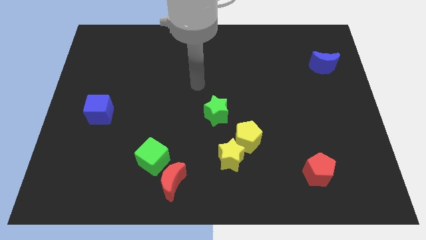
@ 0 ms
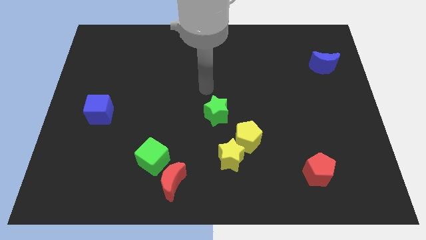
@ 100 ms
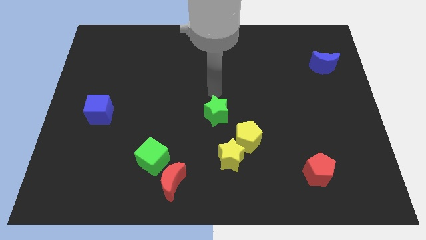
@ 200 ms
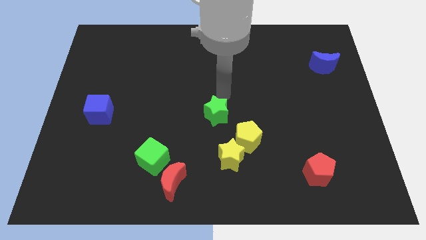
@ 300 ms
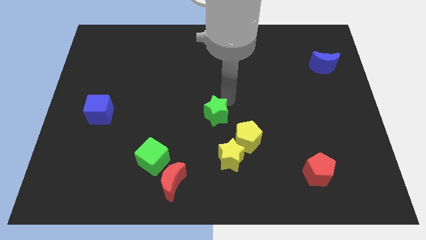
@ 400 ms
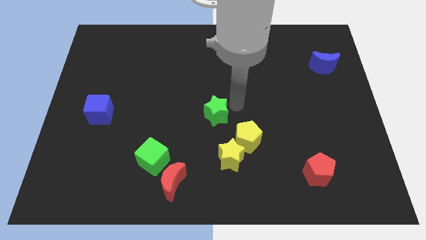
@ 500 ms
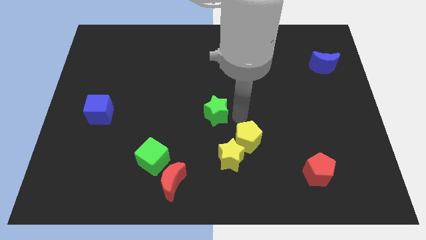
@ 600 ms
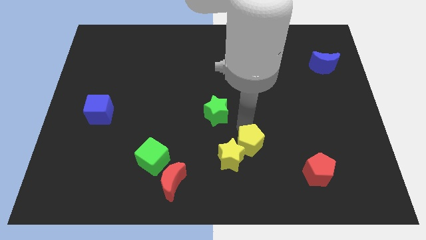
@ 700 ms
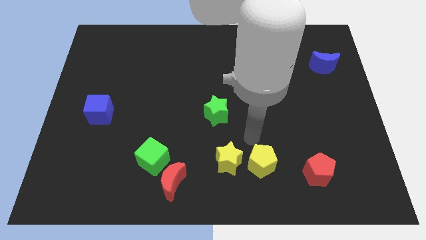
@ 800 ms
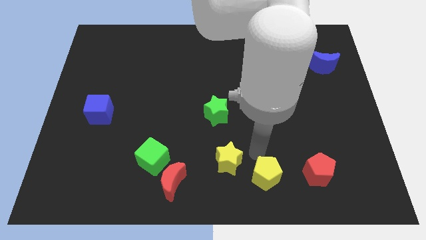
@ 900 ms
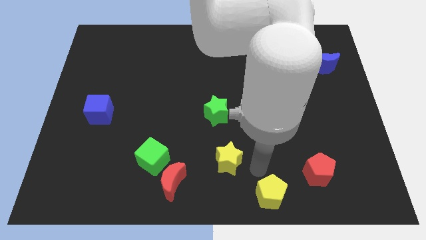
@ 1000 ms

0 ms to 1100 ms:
move the yellow star away from the yellow pentagon

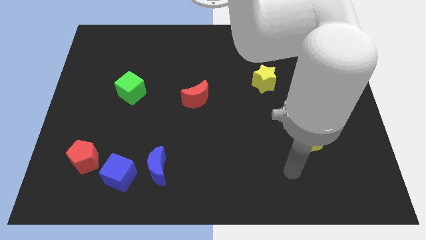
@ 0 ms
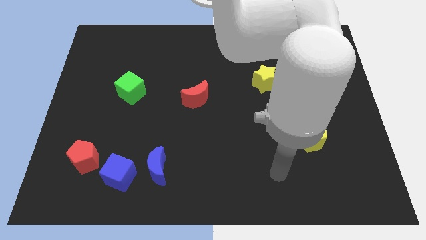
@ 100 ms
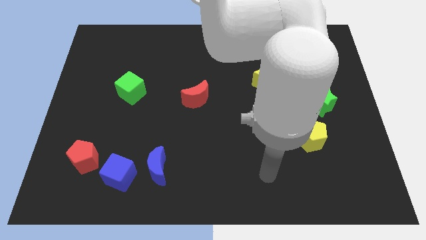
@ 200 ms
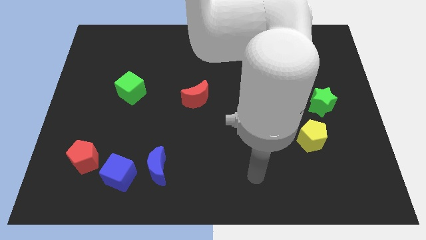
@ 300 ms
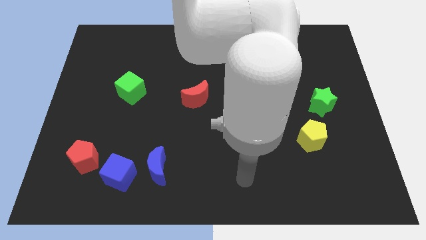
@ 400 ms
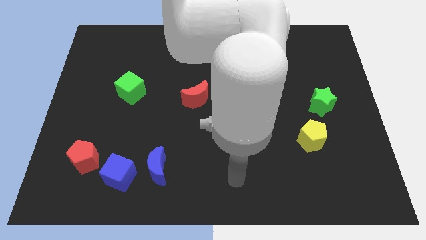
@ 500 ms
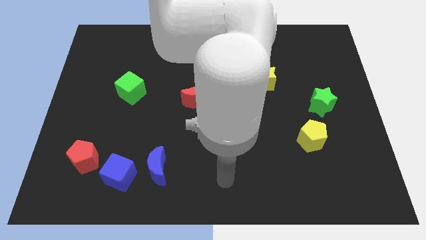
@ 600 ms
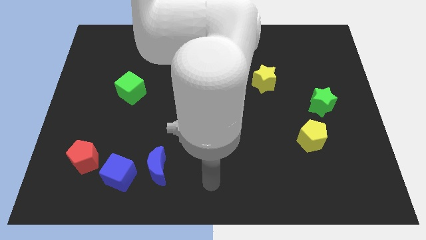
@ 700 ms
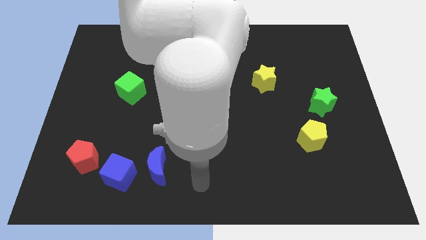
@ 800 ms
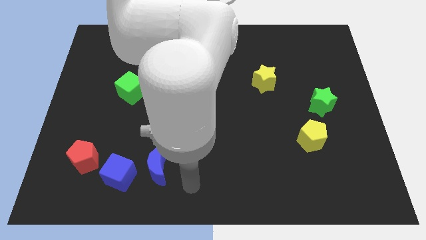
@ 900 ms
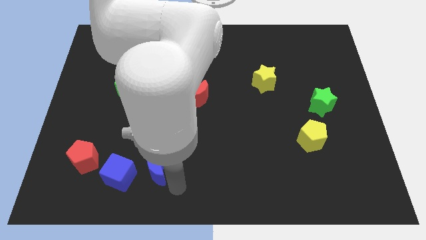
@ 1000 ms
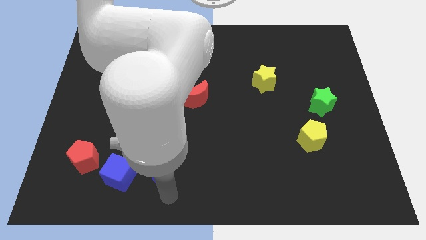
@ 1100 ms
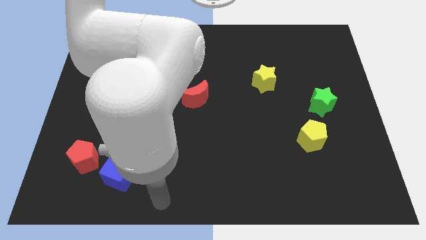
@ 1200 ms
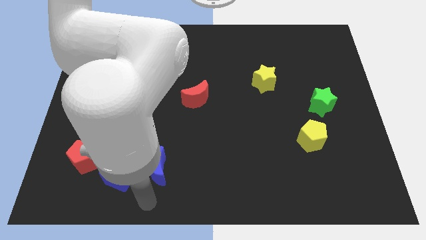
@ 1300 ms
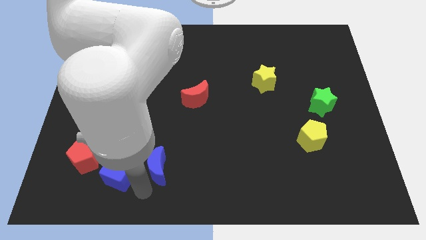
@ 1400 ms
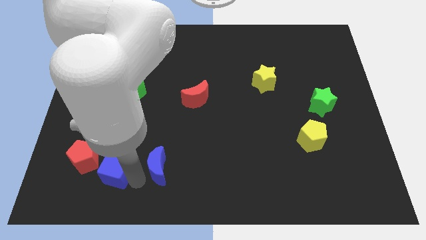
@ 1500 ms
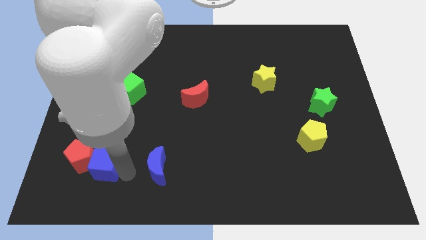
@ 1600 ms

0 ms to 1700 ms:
separate the blue moon from the blue cube

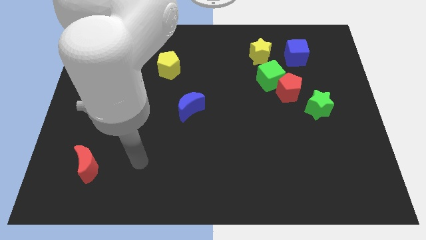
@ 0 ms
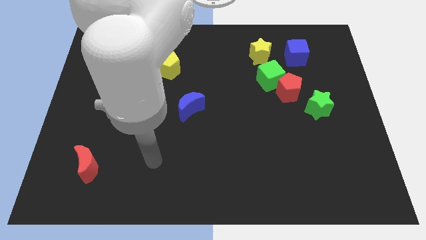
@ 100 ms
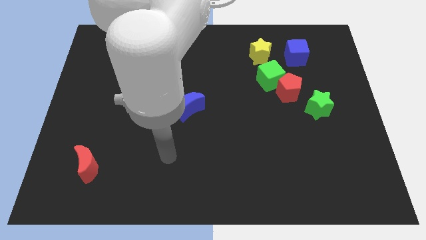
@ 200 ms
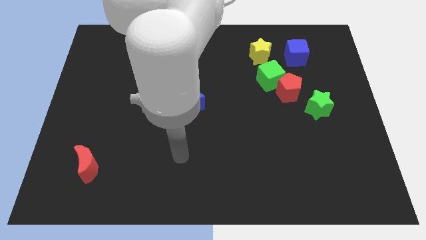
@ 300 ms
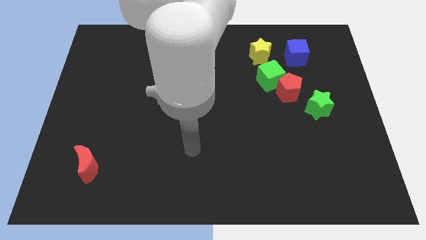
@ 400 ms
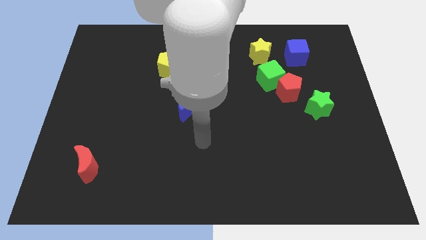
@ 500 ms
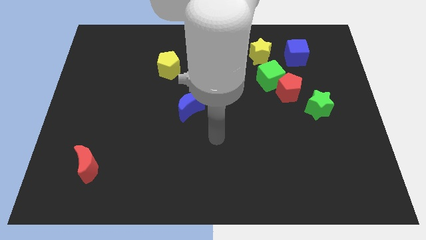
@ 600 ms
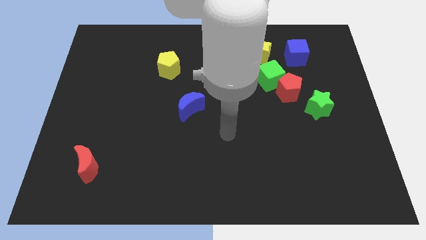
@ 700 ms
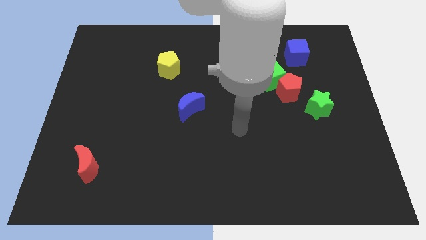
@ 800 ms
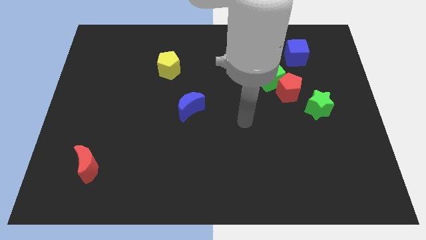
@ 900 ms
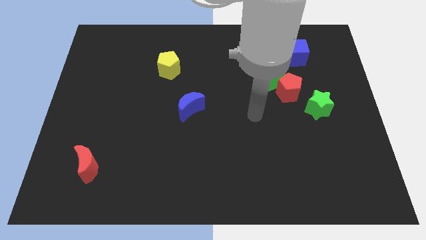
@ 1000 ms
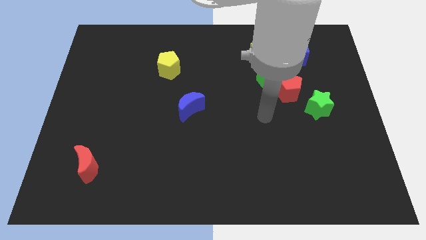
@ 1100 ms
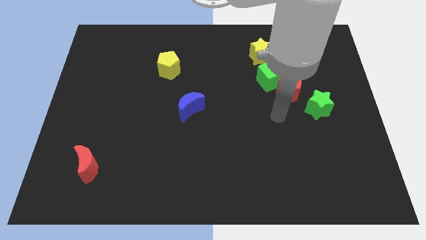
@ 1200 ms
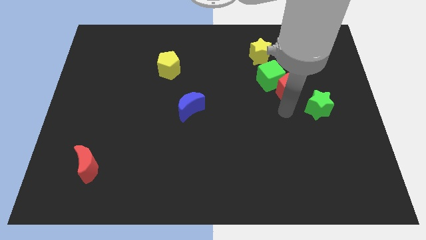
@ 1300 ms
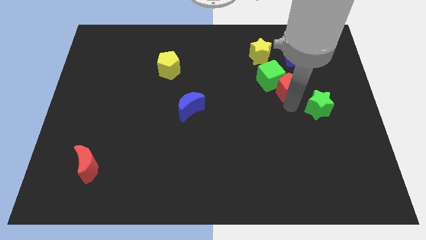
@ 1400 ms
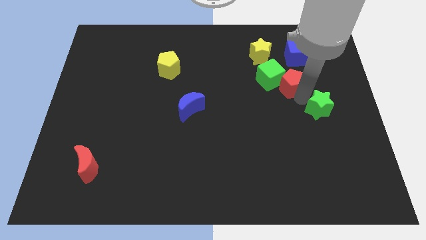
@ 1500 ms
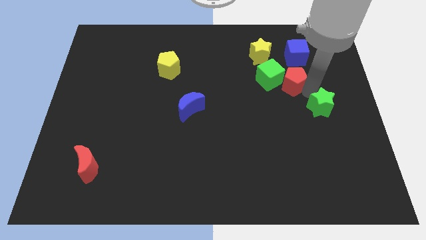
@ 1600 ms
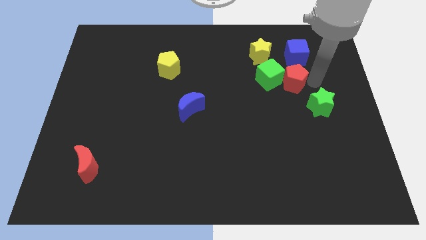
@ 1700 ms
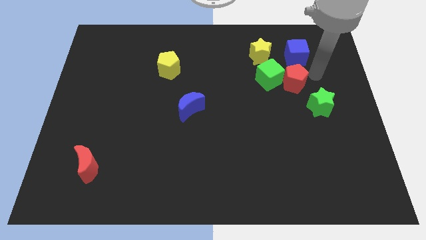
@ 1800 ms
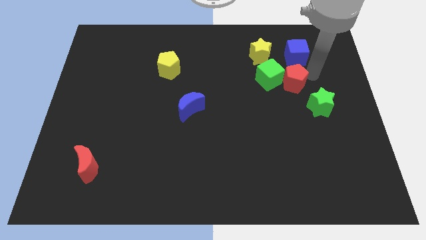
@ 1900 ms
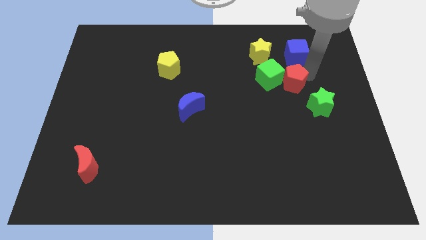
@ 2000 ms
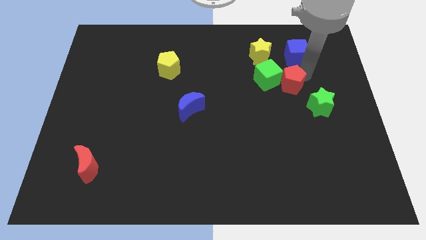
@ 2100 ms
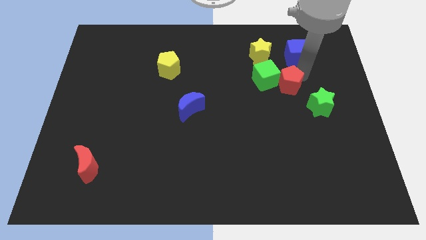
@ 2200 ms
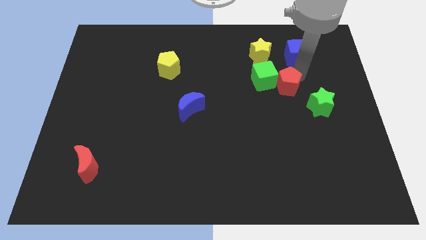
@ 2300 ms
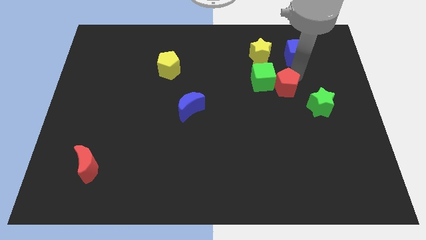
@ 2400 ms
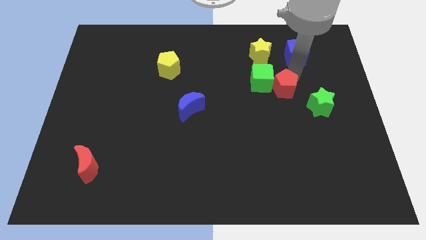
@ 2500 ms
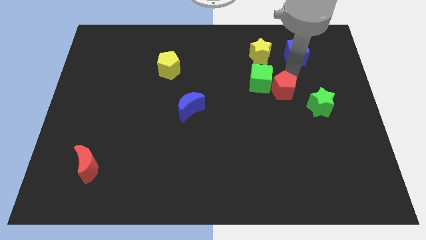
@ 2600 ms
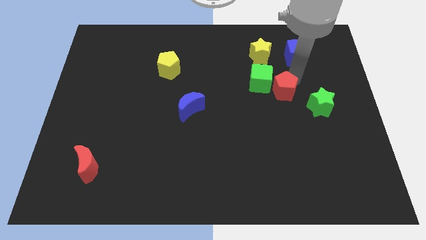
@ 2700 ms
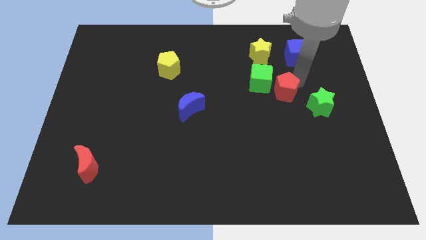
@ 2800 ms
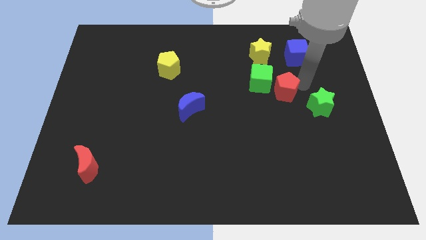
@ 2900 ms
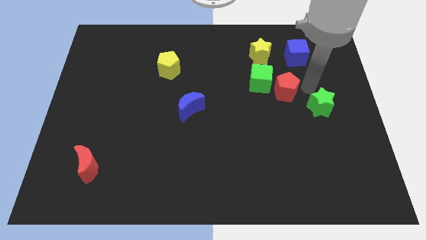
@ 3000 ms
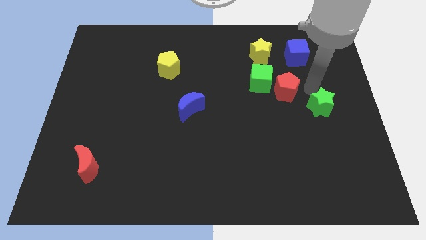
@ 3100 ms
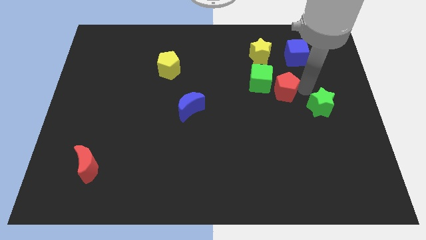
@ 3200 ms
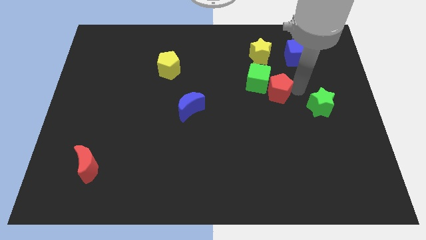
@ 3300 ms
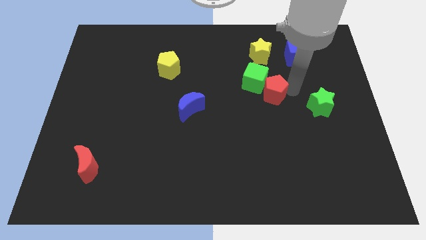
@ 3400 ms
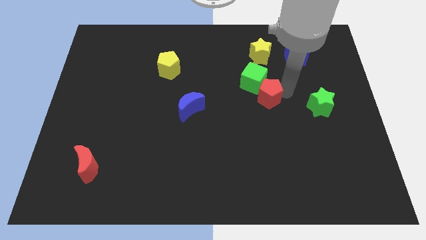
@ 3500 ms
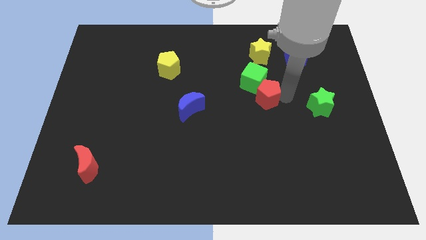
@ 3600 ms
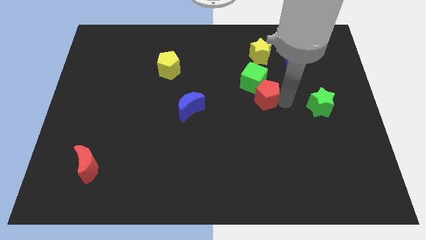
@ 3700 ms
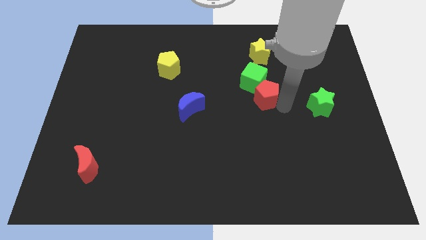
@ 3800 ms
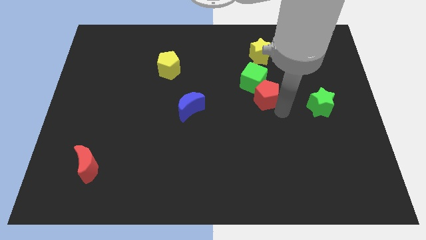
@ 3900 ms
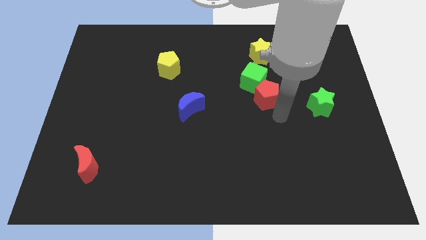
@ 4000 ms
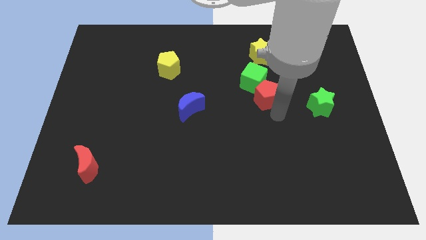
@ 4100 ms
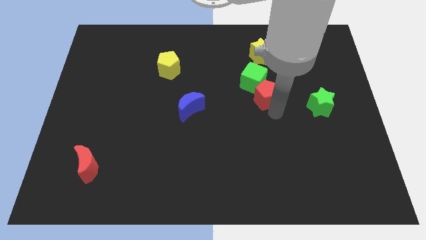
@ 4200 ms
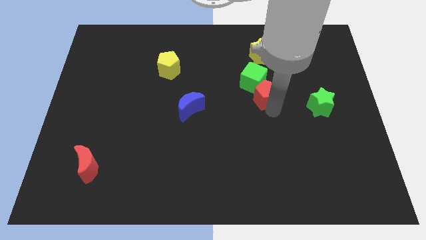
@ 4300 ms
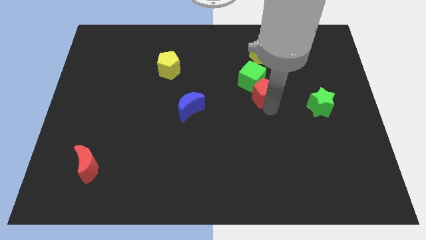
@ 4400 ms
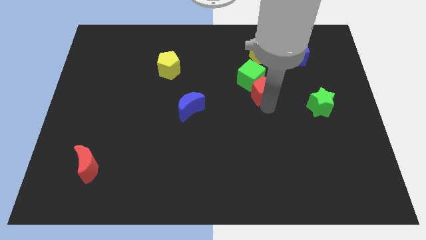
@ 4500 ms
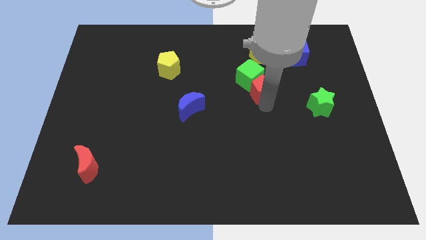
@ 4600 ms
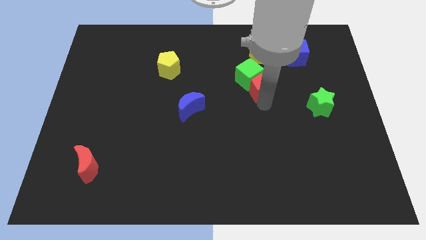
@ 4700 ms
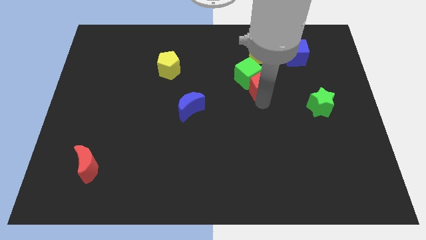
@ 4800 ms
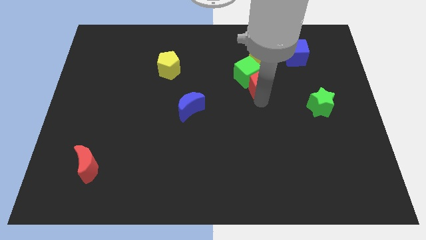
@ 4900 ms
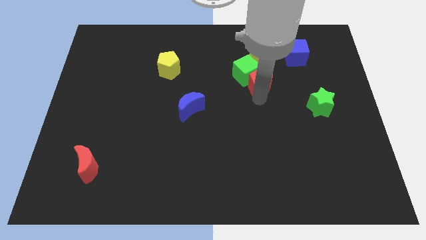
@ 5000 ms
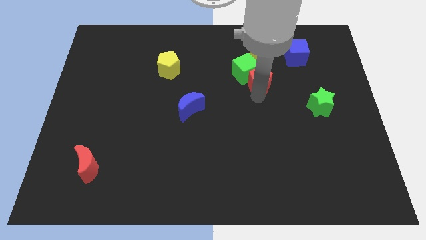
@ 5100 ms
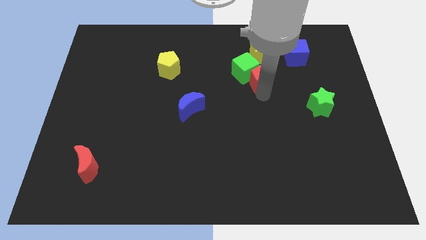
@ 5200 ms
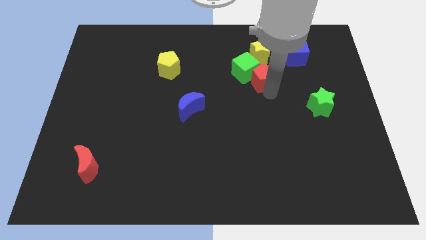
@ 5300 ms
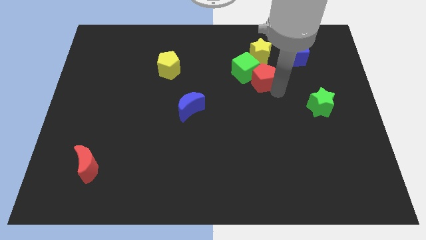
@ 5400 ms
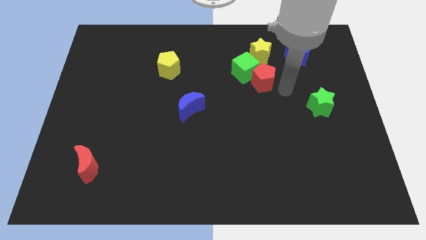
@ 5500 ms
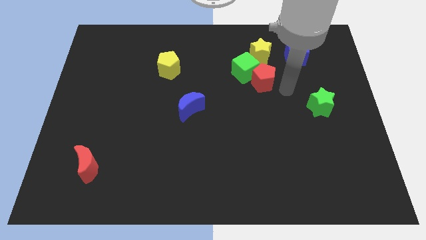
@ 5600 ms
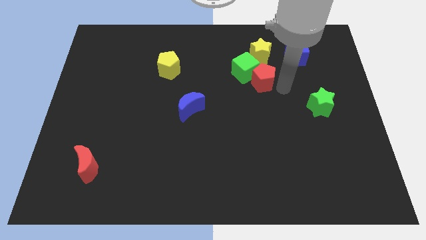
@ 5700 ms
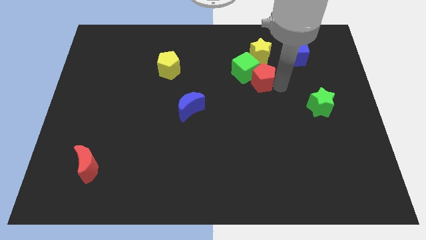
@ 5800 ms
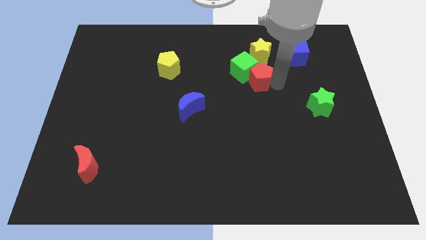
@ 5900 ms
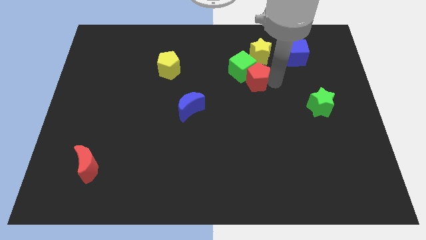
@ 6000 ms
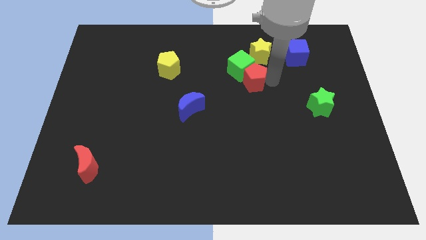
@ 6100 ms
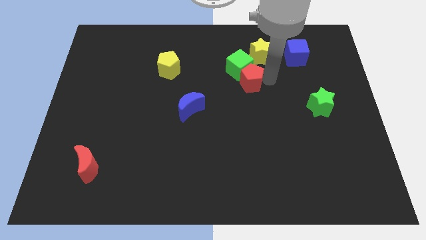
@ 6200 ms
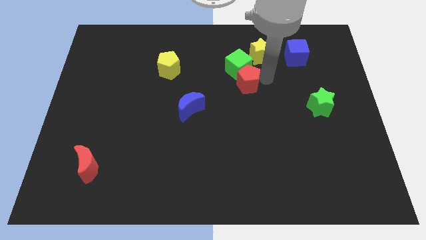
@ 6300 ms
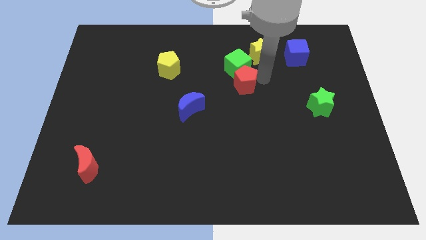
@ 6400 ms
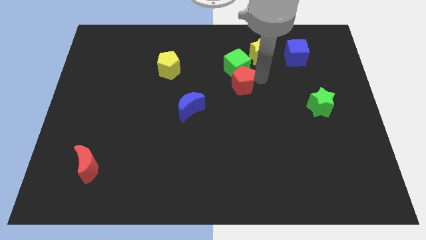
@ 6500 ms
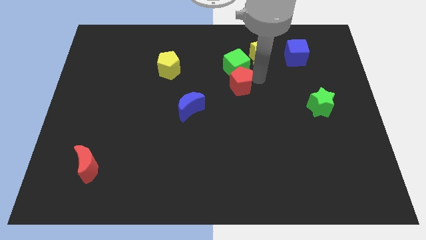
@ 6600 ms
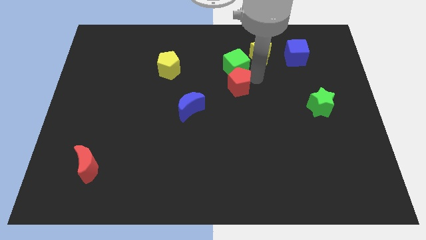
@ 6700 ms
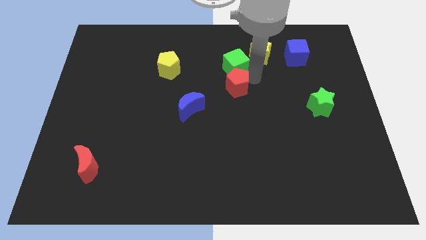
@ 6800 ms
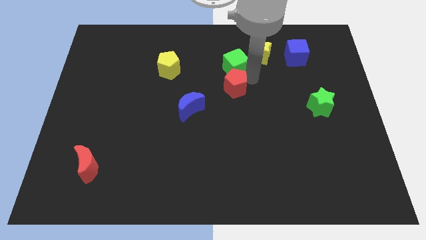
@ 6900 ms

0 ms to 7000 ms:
separate the red pentagon from the green cube and green star
